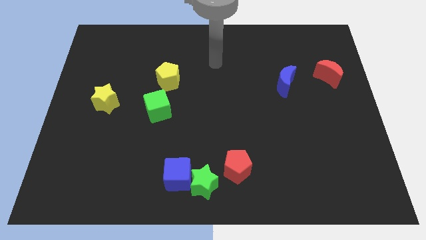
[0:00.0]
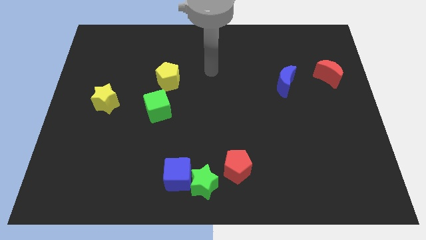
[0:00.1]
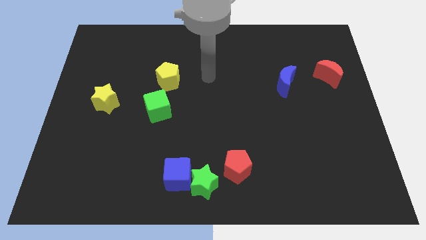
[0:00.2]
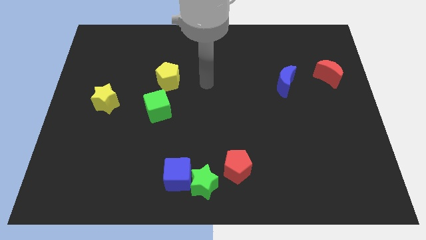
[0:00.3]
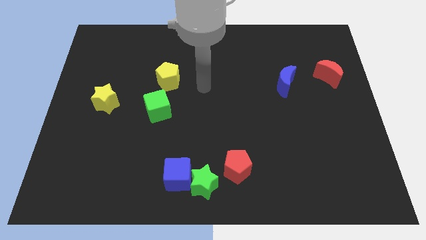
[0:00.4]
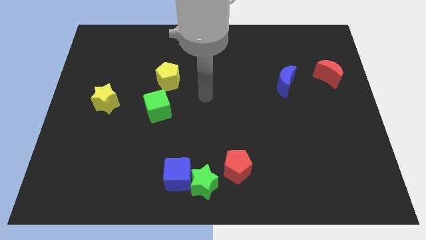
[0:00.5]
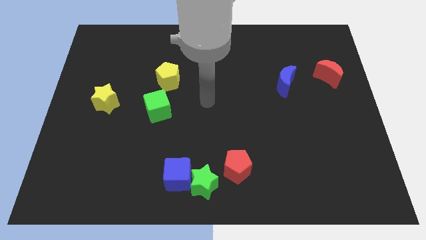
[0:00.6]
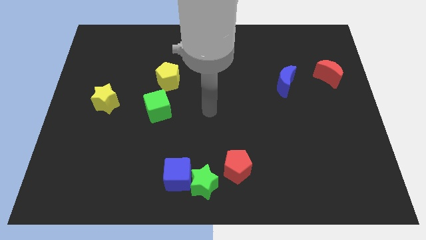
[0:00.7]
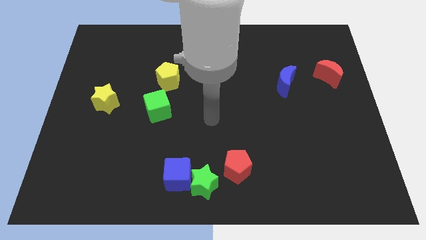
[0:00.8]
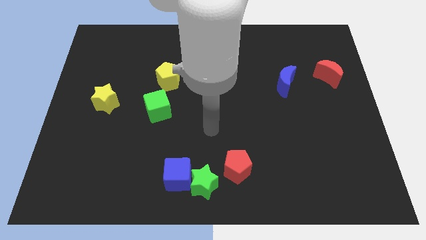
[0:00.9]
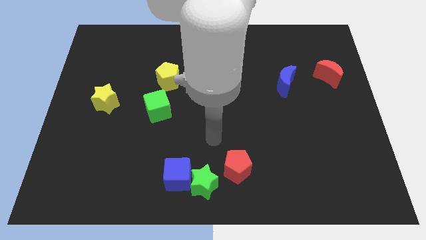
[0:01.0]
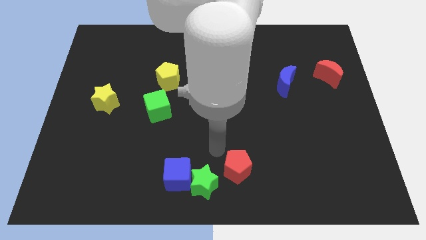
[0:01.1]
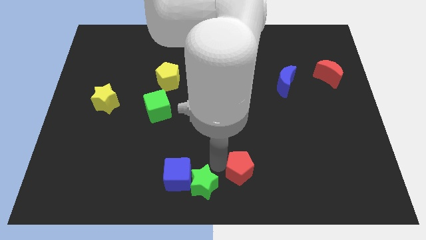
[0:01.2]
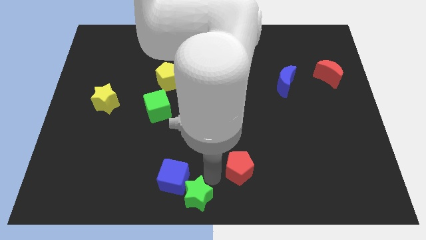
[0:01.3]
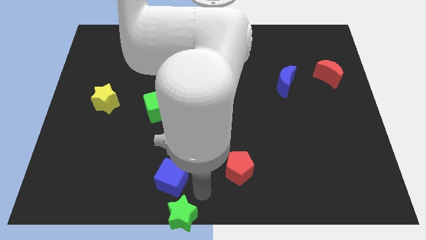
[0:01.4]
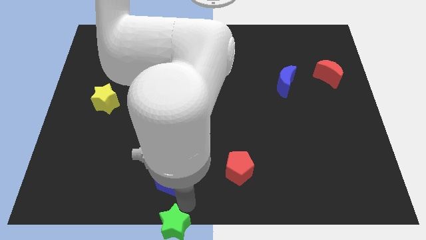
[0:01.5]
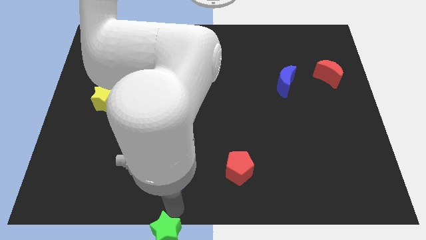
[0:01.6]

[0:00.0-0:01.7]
separate the blue cube from the green star

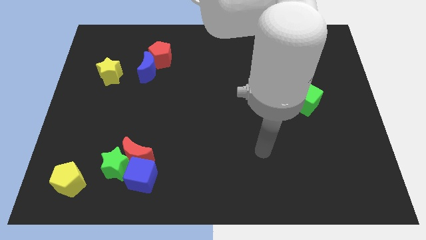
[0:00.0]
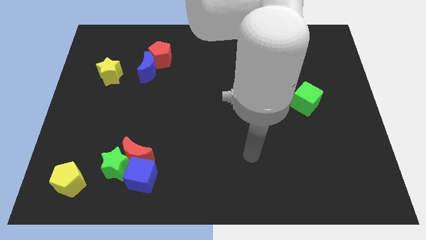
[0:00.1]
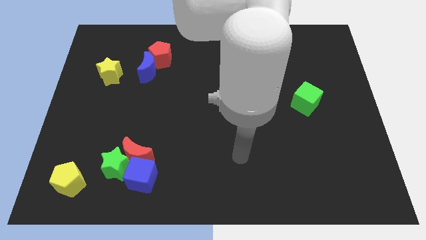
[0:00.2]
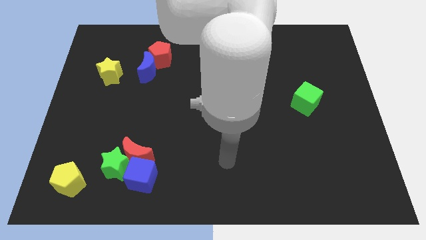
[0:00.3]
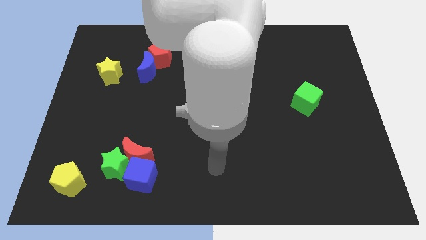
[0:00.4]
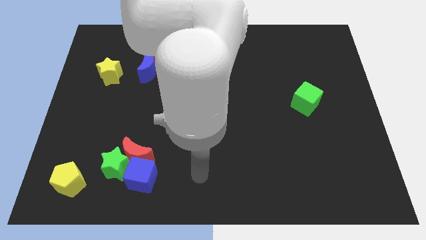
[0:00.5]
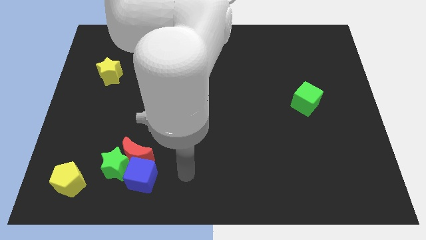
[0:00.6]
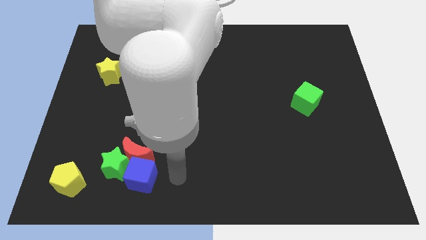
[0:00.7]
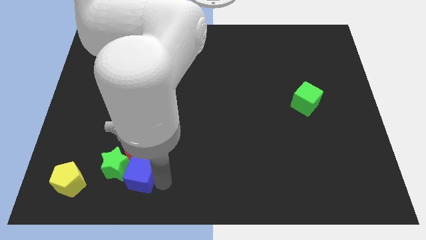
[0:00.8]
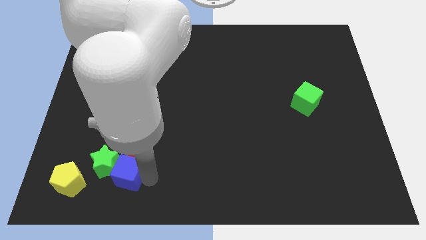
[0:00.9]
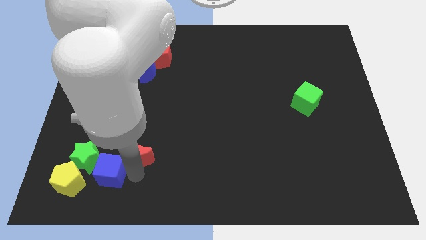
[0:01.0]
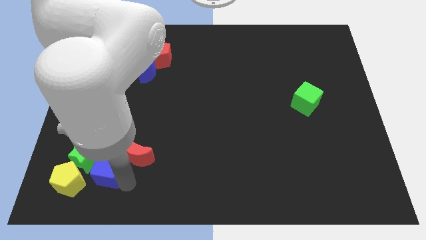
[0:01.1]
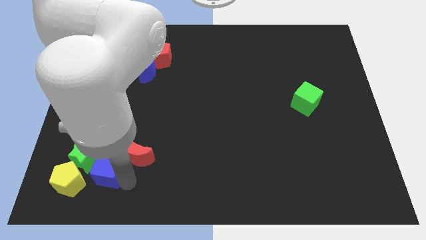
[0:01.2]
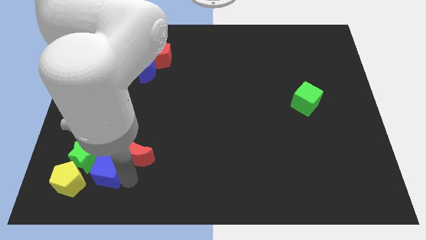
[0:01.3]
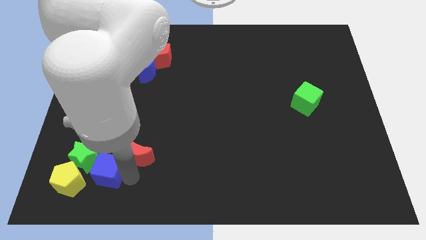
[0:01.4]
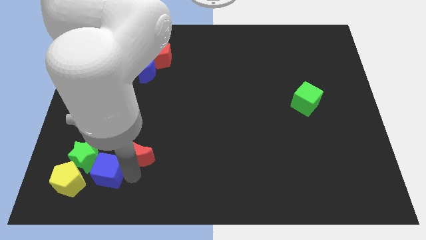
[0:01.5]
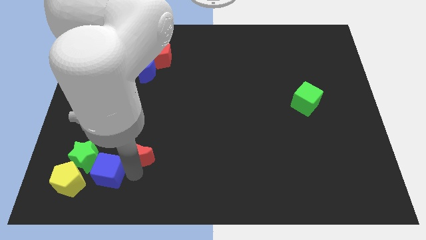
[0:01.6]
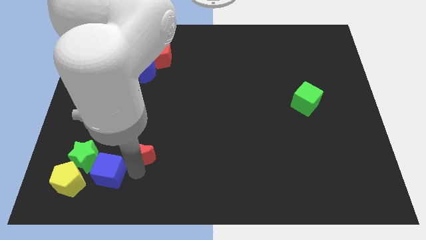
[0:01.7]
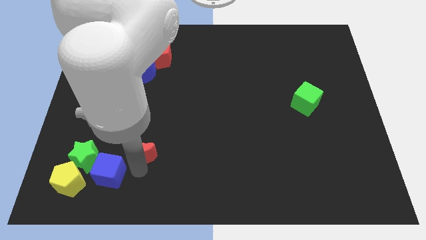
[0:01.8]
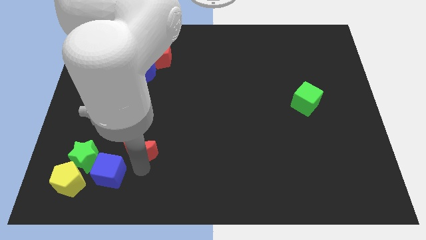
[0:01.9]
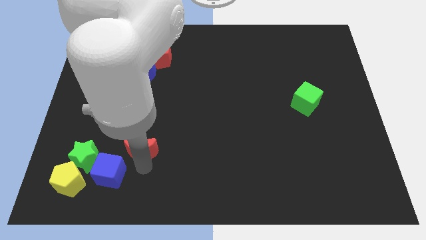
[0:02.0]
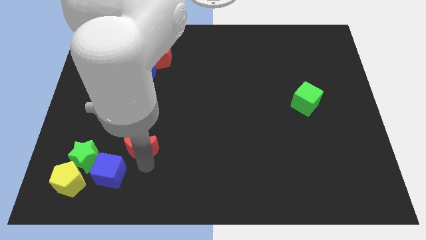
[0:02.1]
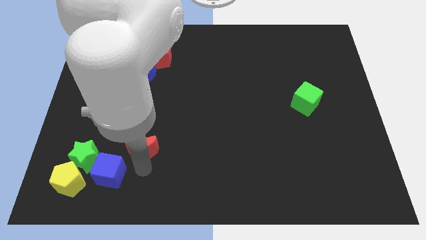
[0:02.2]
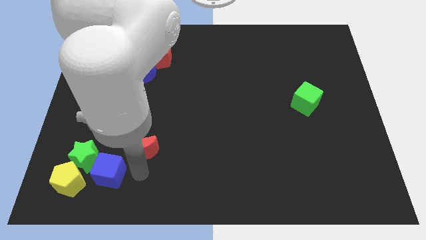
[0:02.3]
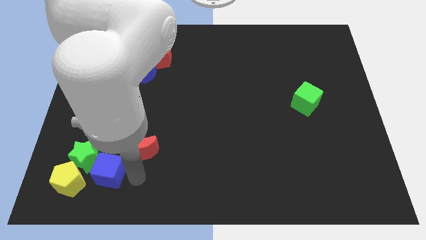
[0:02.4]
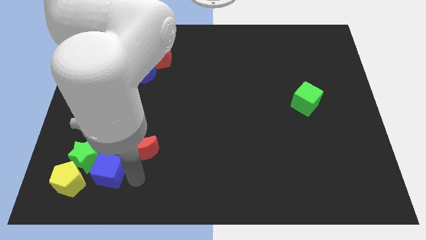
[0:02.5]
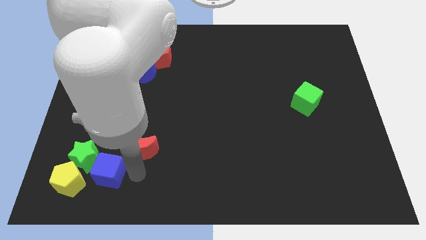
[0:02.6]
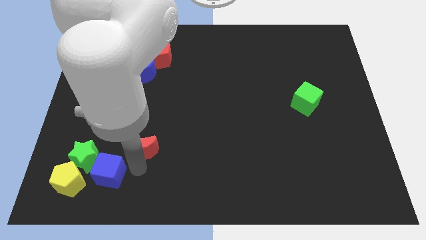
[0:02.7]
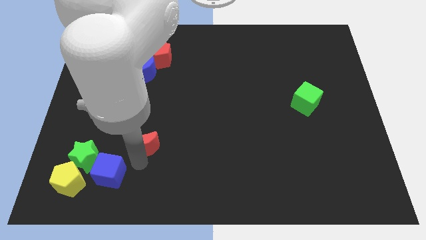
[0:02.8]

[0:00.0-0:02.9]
pull the red moon apart from the green star and blue cube

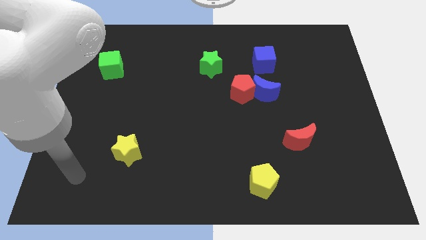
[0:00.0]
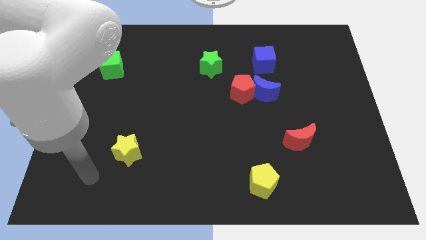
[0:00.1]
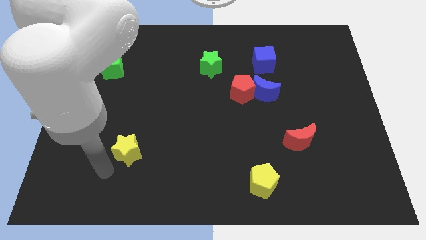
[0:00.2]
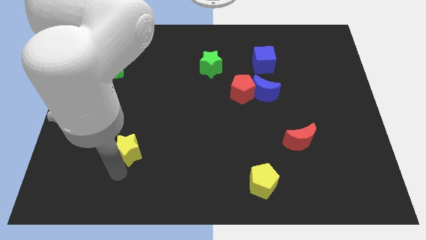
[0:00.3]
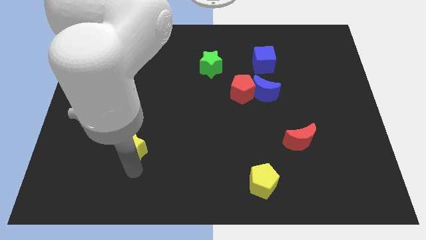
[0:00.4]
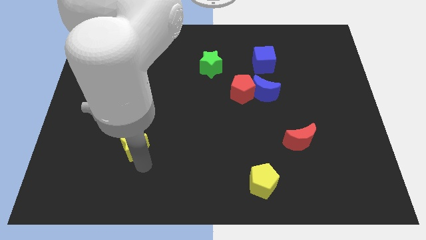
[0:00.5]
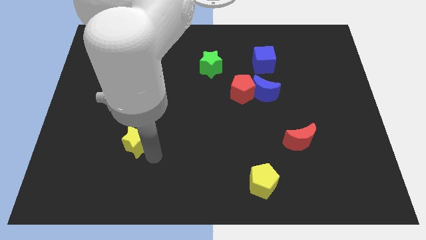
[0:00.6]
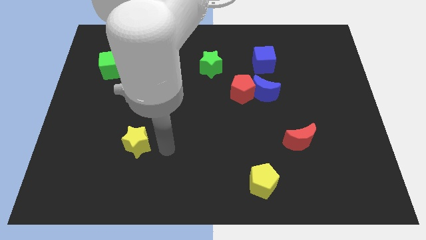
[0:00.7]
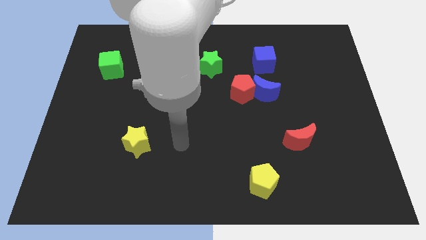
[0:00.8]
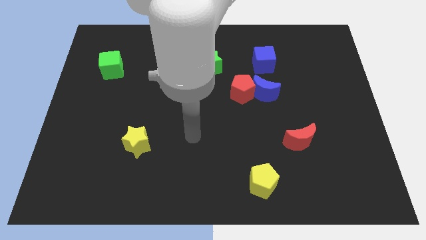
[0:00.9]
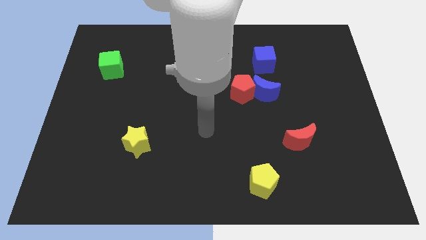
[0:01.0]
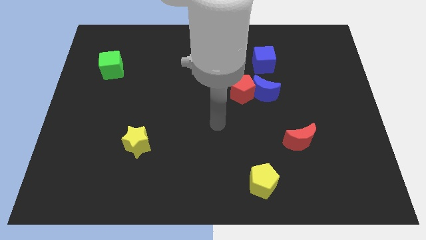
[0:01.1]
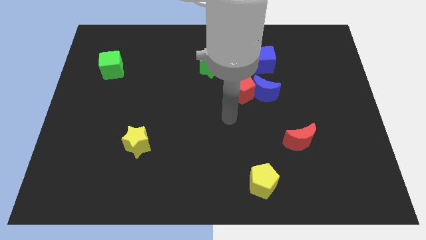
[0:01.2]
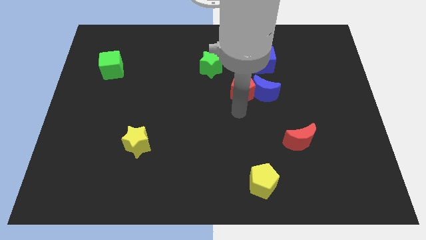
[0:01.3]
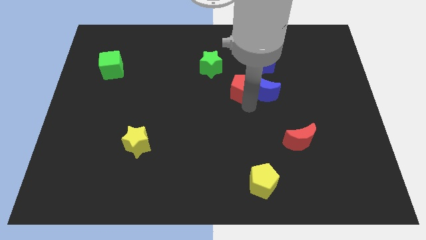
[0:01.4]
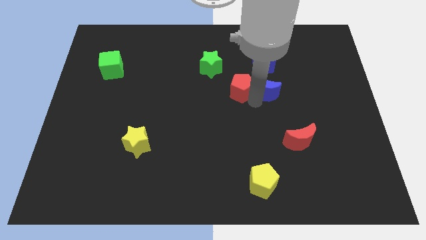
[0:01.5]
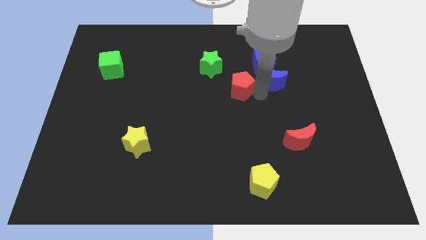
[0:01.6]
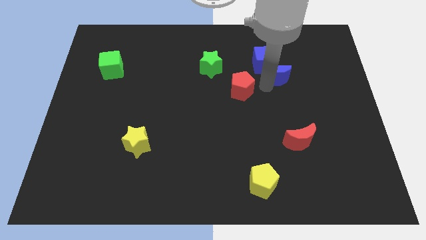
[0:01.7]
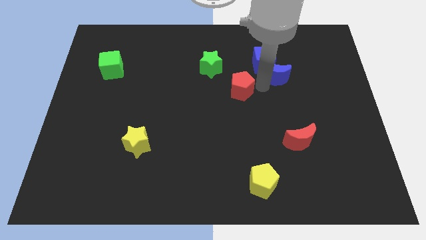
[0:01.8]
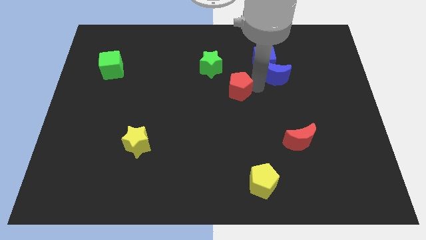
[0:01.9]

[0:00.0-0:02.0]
pull the red pentagon apart from the blue moon

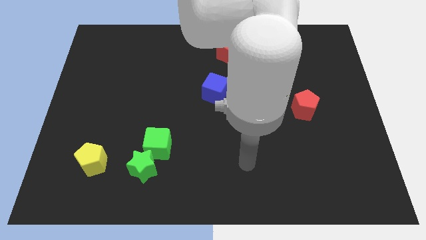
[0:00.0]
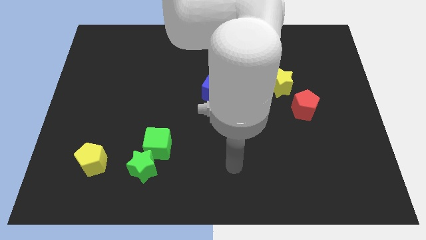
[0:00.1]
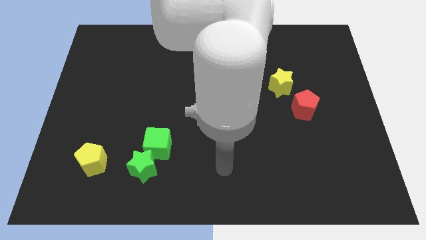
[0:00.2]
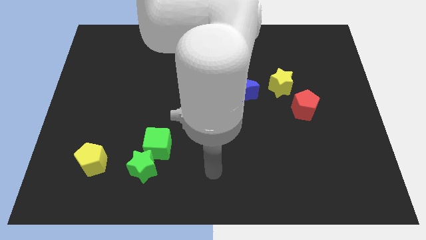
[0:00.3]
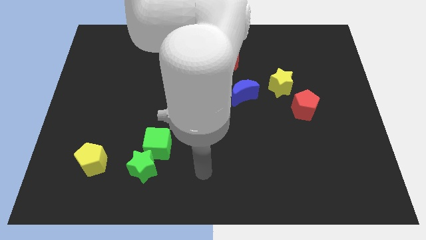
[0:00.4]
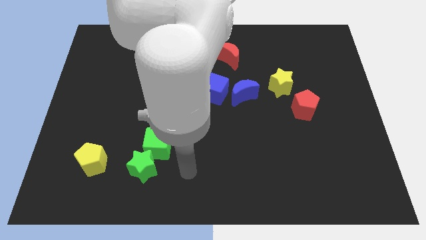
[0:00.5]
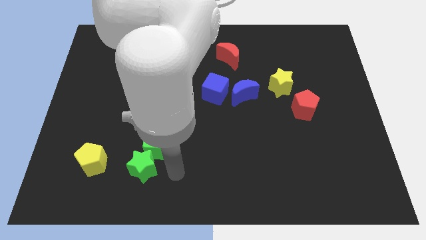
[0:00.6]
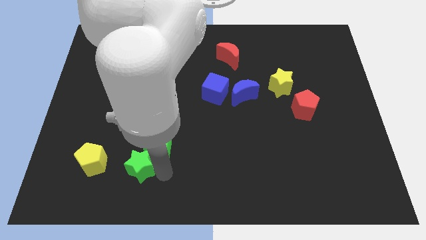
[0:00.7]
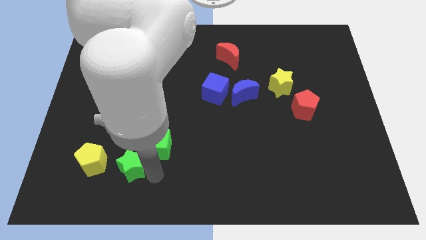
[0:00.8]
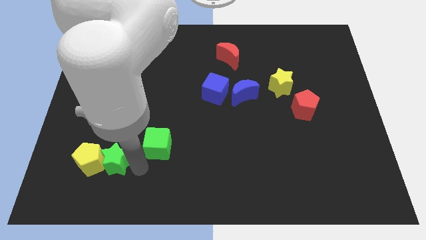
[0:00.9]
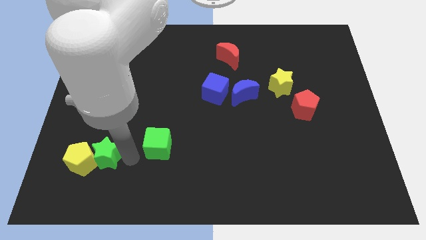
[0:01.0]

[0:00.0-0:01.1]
move the green cube away from the green star

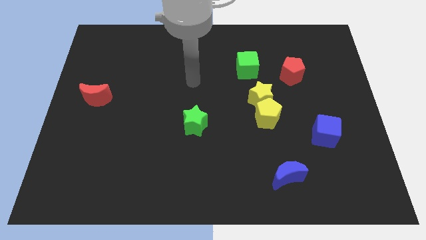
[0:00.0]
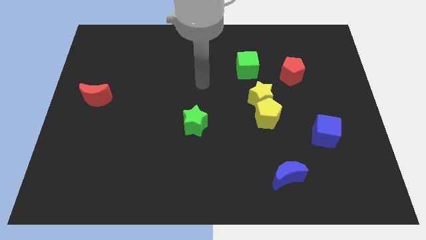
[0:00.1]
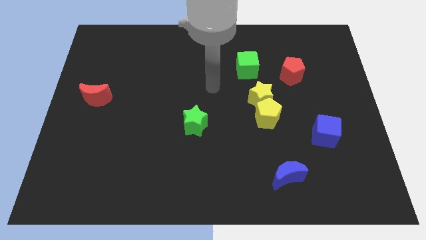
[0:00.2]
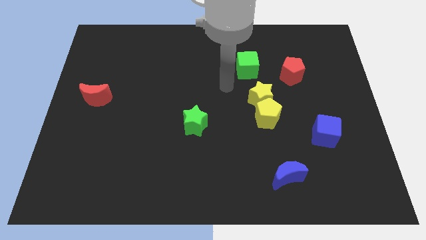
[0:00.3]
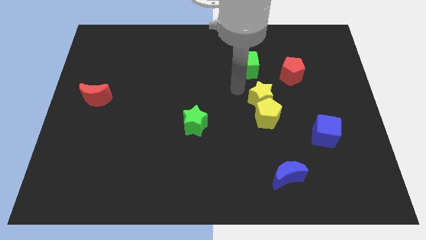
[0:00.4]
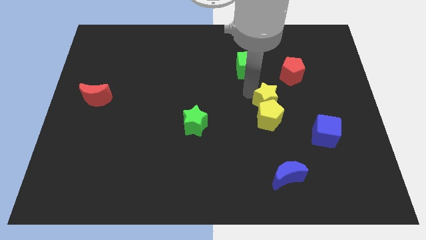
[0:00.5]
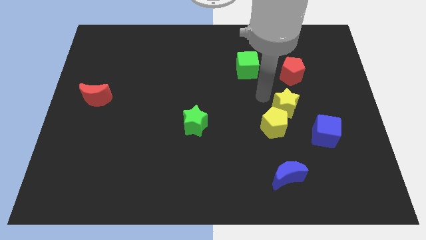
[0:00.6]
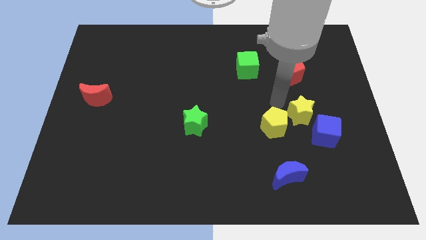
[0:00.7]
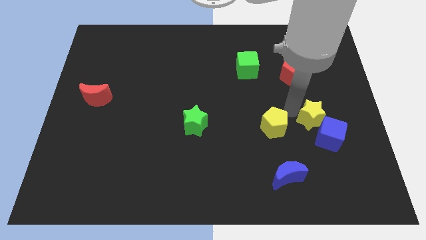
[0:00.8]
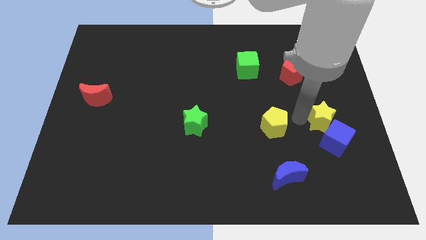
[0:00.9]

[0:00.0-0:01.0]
pull the yellow pentagon apart from the yellow star

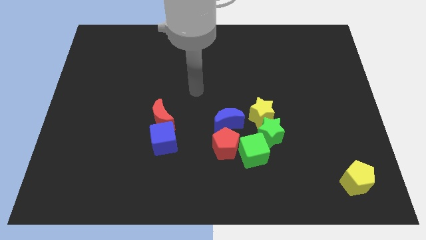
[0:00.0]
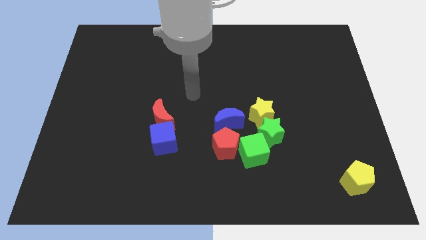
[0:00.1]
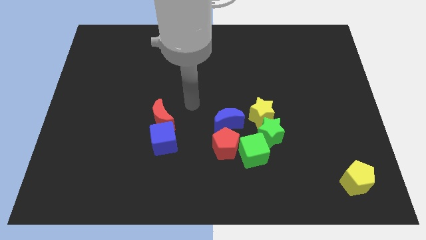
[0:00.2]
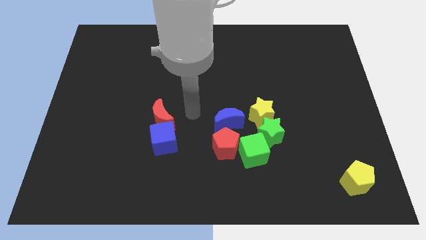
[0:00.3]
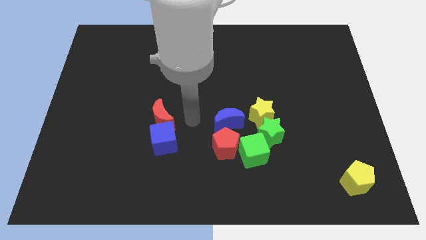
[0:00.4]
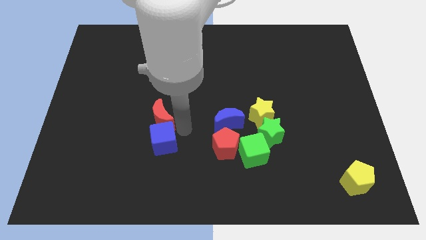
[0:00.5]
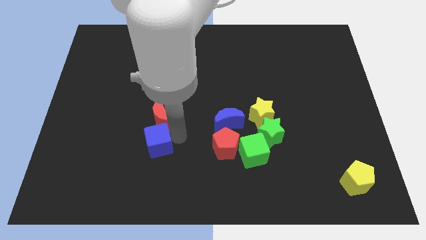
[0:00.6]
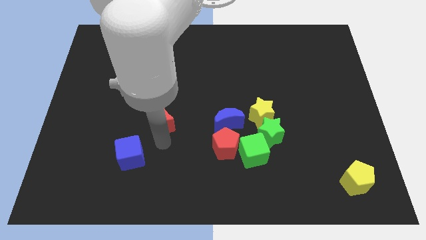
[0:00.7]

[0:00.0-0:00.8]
separate the red moon from the blue cube
